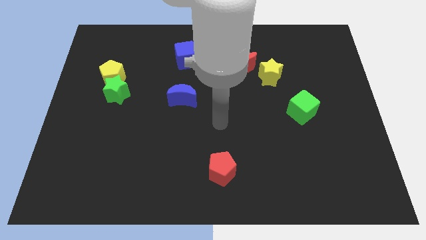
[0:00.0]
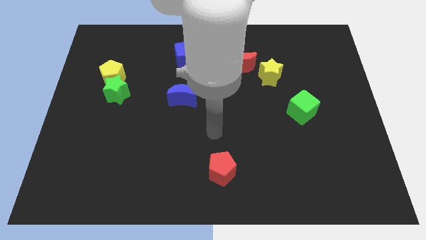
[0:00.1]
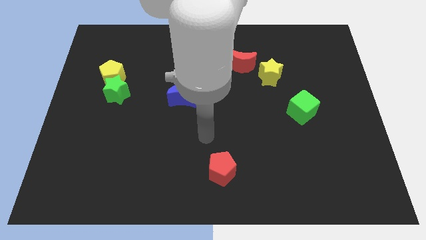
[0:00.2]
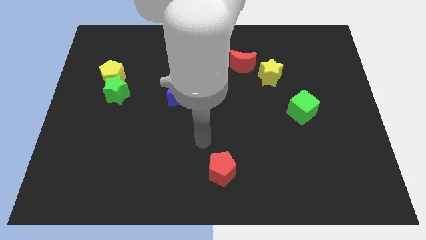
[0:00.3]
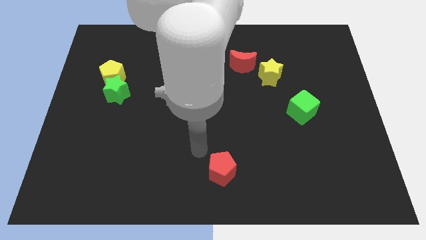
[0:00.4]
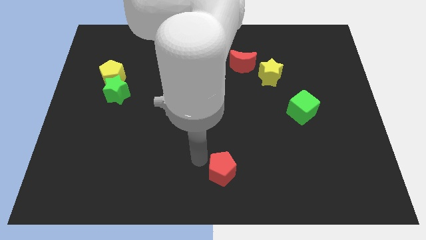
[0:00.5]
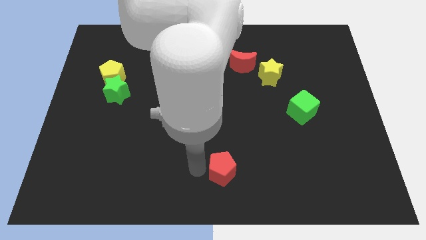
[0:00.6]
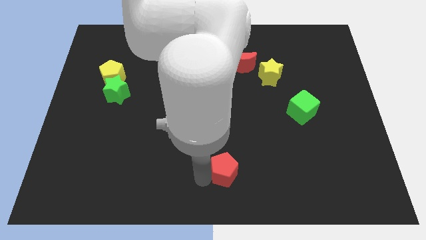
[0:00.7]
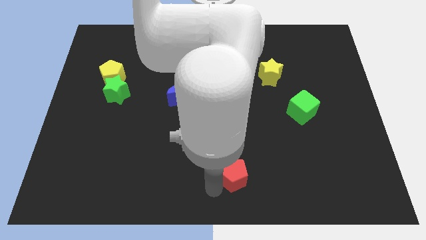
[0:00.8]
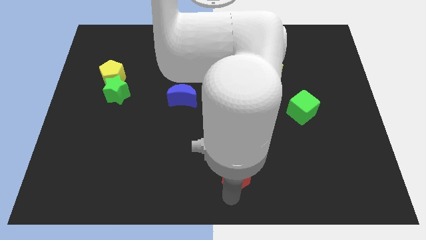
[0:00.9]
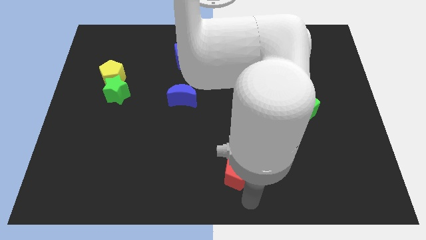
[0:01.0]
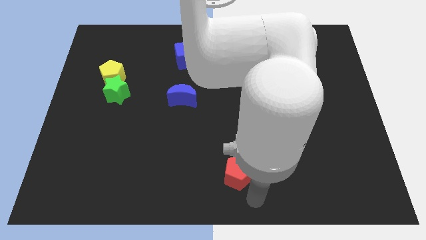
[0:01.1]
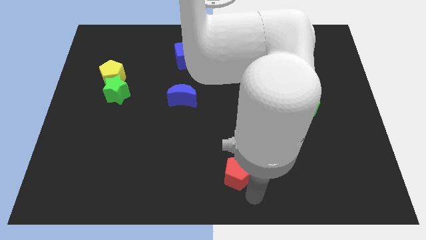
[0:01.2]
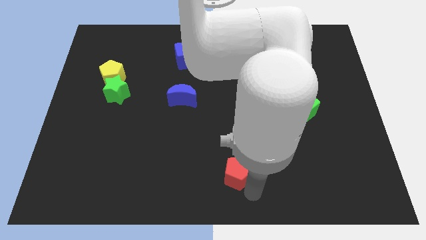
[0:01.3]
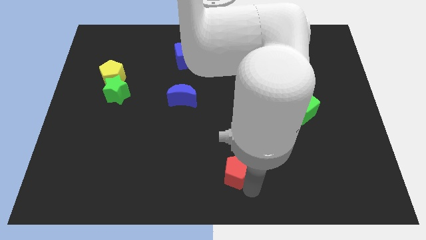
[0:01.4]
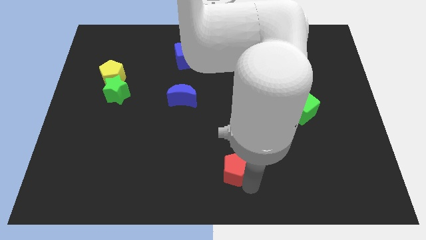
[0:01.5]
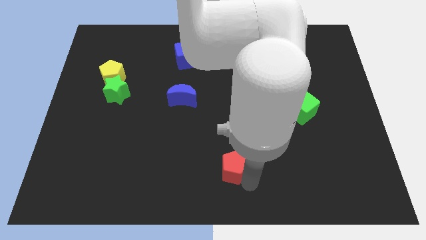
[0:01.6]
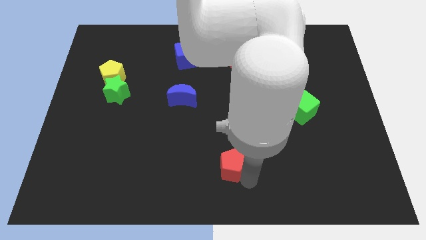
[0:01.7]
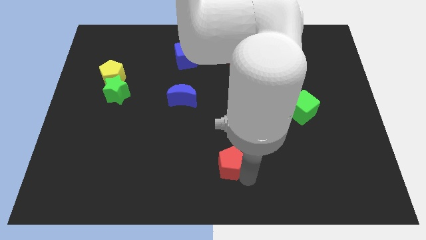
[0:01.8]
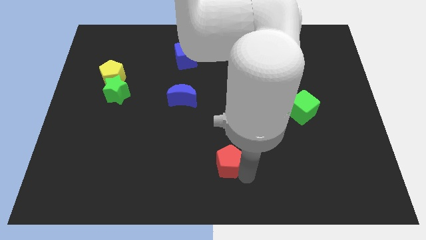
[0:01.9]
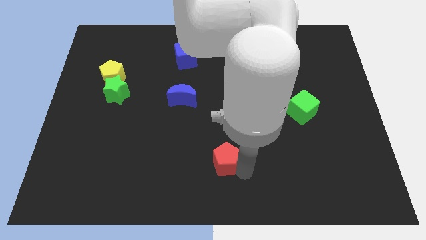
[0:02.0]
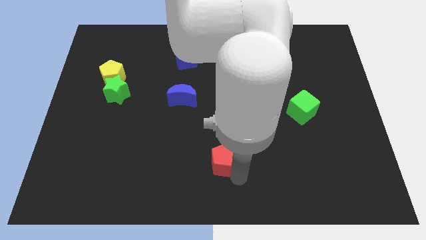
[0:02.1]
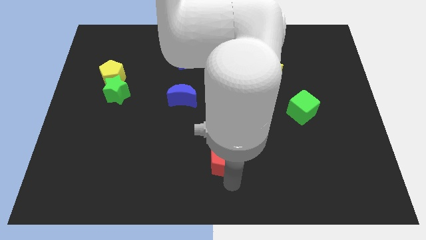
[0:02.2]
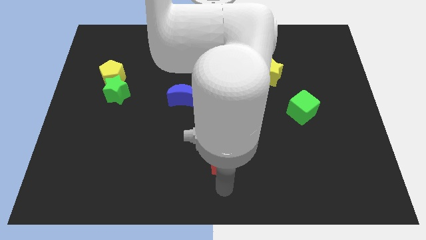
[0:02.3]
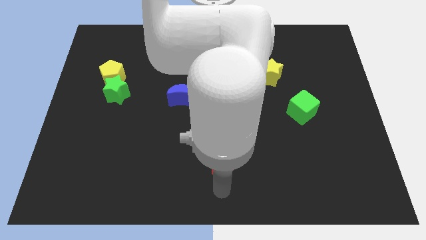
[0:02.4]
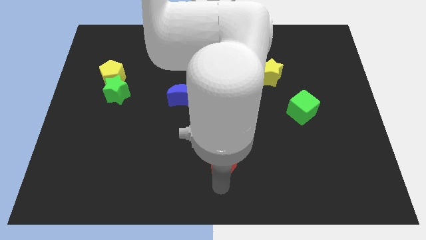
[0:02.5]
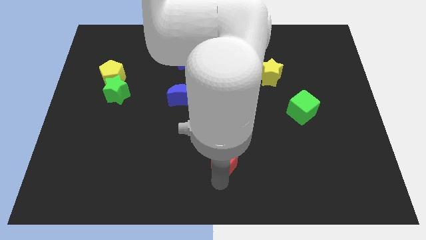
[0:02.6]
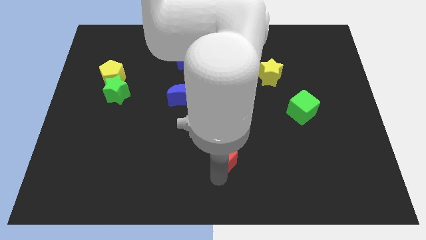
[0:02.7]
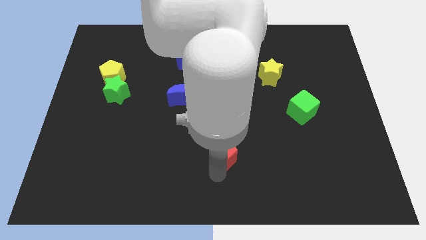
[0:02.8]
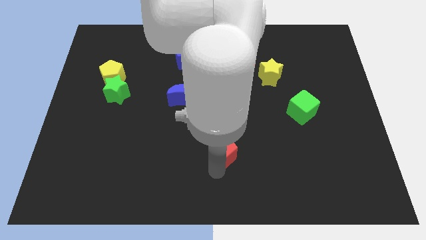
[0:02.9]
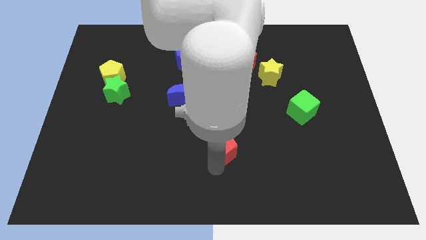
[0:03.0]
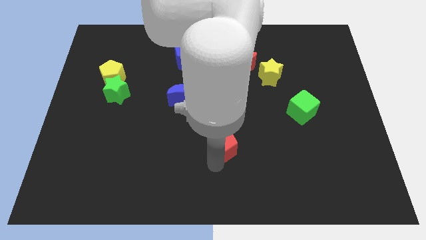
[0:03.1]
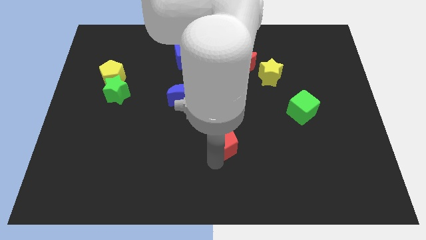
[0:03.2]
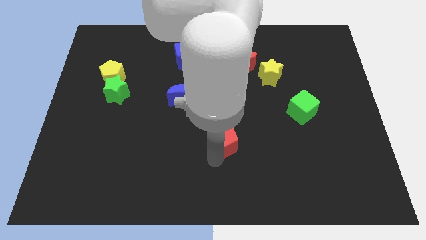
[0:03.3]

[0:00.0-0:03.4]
move the red pentagon upwards a bit

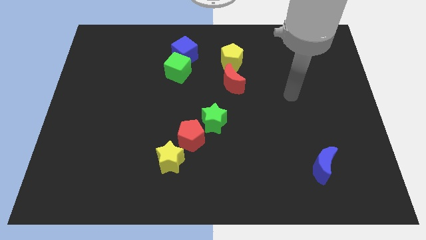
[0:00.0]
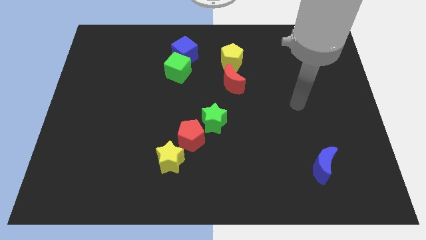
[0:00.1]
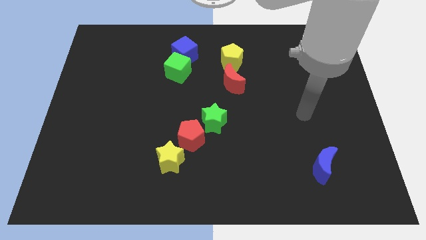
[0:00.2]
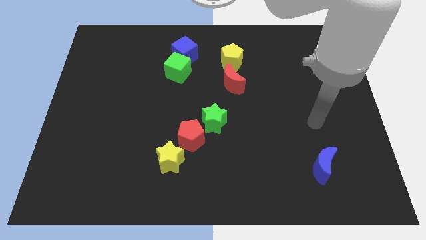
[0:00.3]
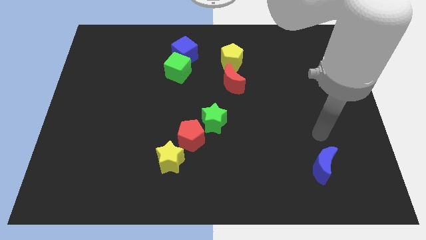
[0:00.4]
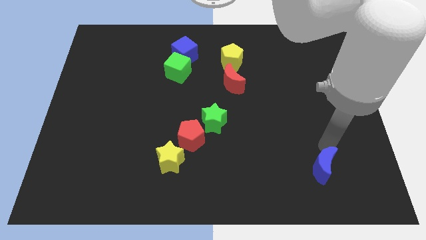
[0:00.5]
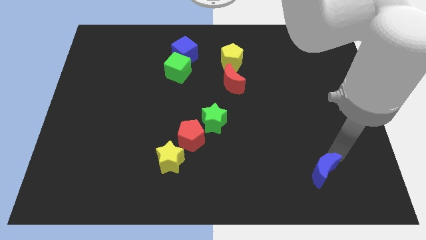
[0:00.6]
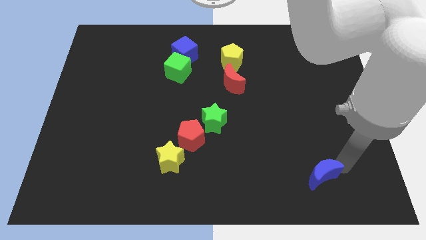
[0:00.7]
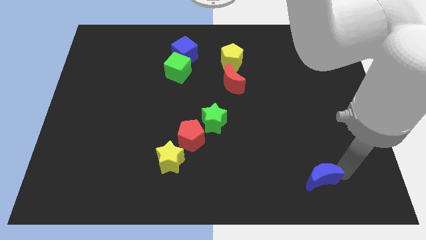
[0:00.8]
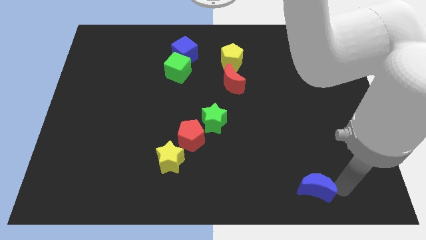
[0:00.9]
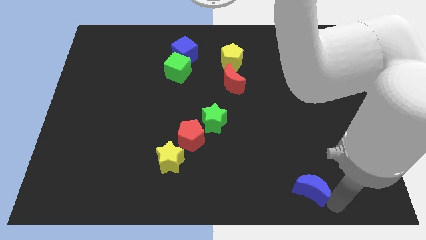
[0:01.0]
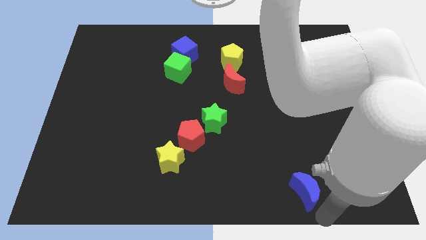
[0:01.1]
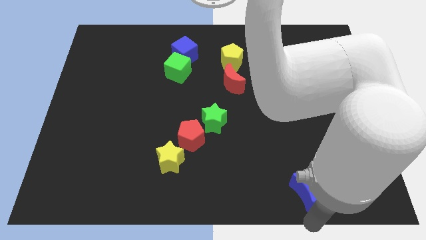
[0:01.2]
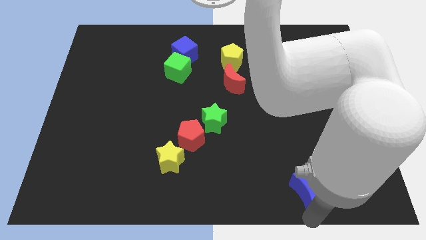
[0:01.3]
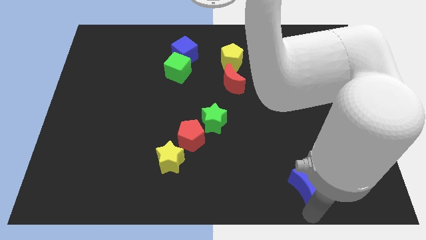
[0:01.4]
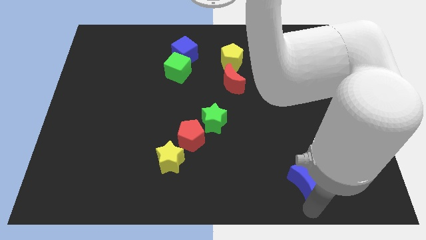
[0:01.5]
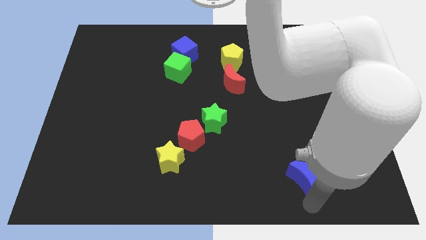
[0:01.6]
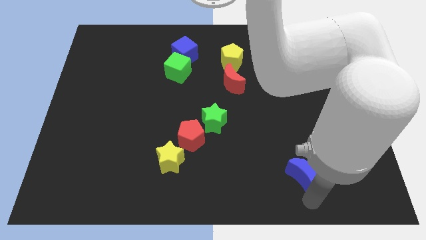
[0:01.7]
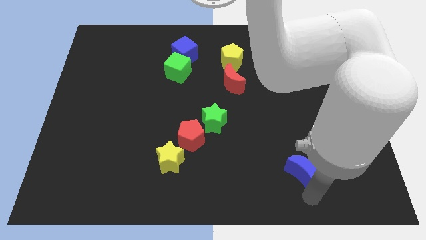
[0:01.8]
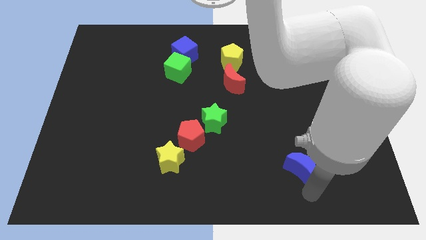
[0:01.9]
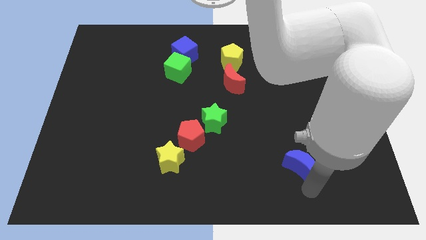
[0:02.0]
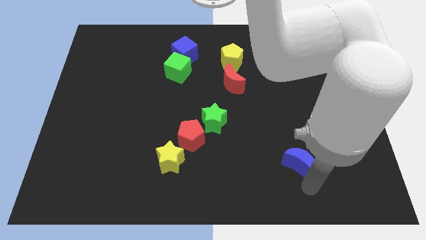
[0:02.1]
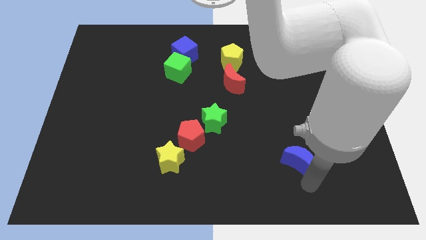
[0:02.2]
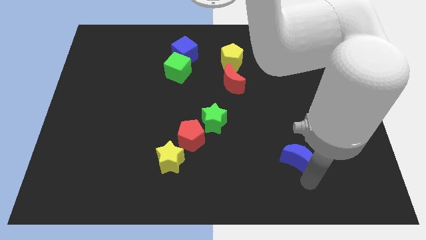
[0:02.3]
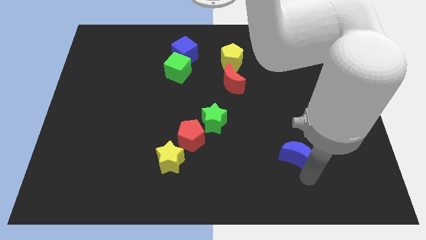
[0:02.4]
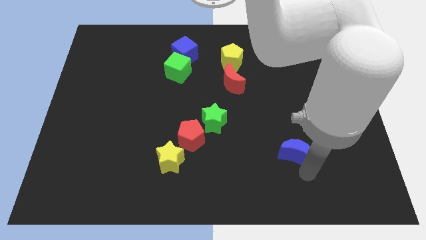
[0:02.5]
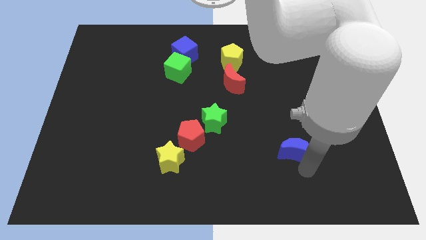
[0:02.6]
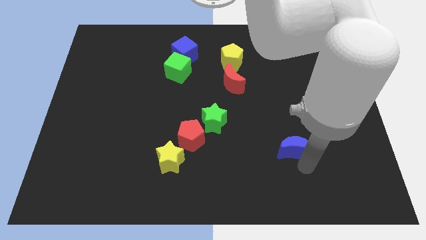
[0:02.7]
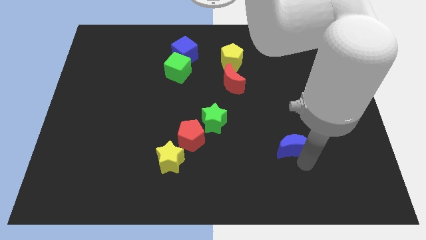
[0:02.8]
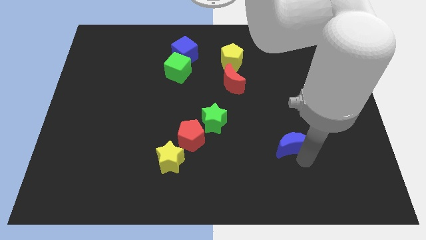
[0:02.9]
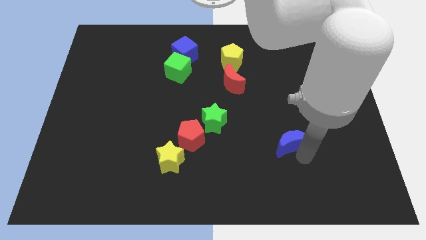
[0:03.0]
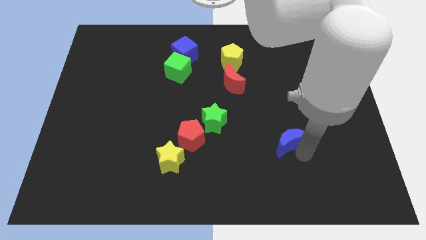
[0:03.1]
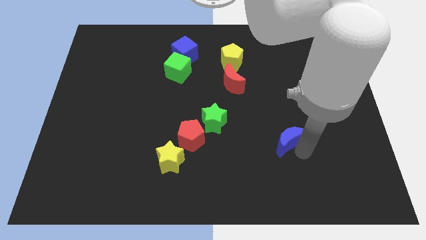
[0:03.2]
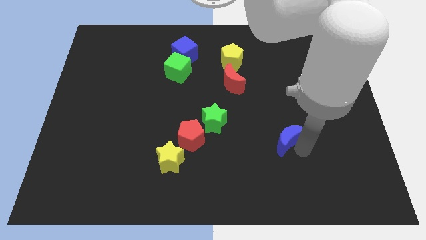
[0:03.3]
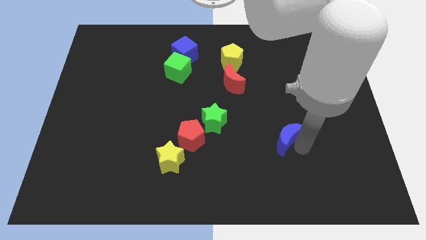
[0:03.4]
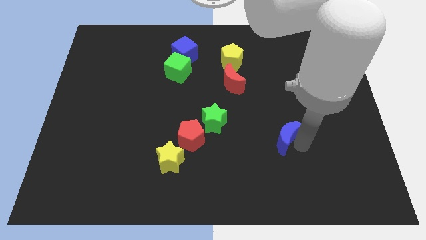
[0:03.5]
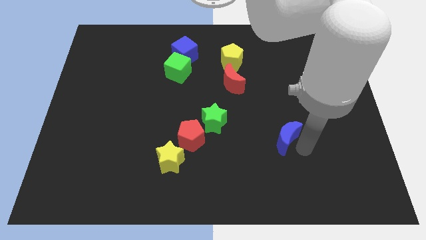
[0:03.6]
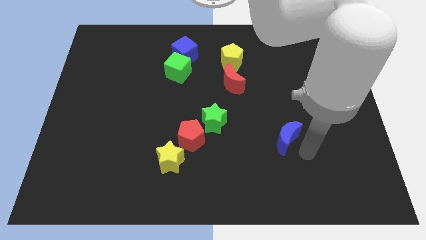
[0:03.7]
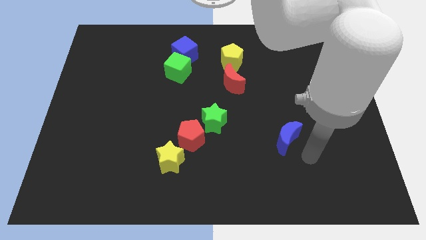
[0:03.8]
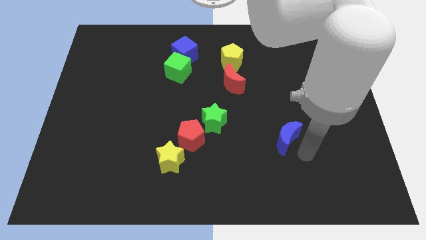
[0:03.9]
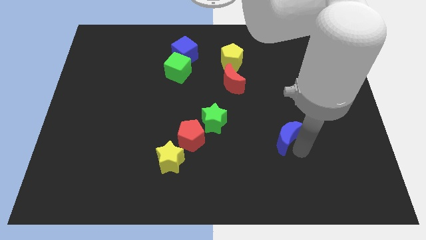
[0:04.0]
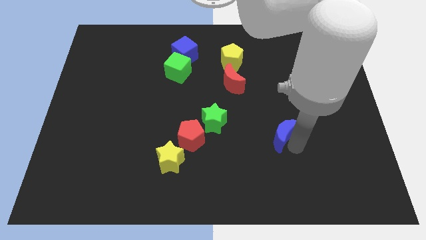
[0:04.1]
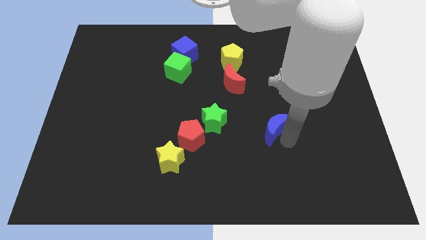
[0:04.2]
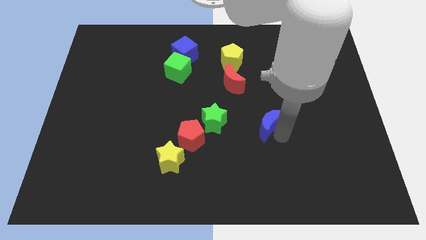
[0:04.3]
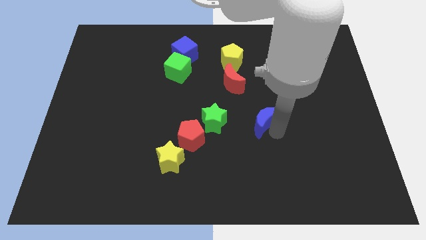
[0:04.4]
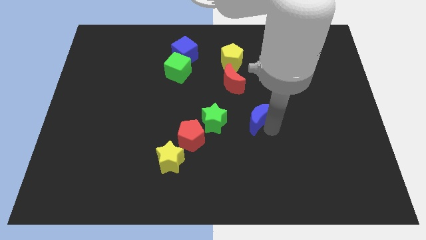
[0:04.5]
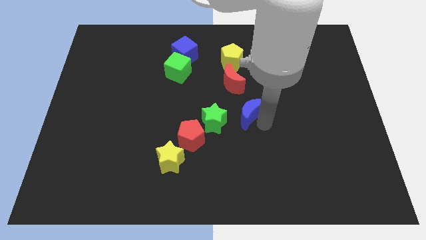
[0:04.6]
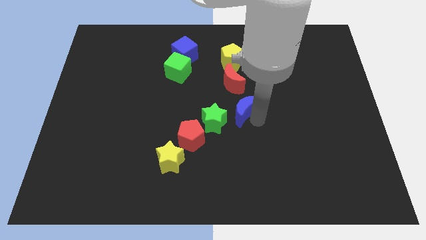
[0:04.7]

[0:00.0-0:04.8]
move the blue moon up and then left

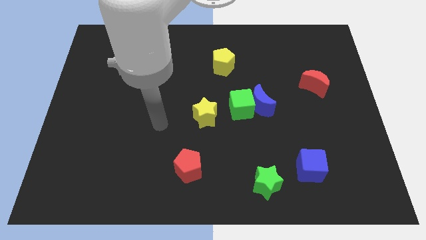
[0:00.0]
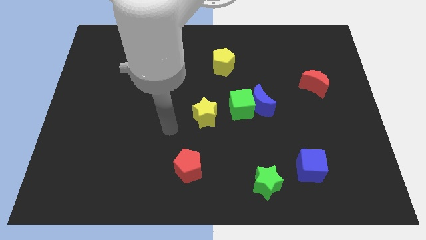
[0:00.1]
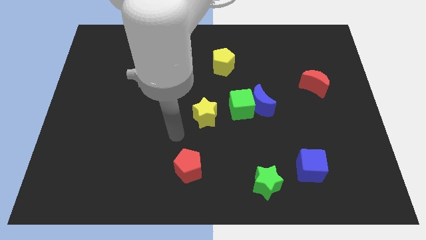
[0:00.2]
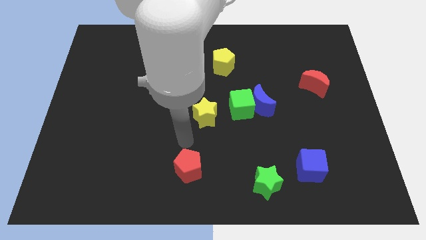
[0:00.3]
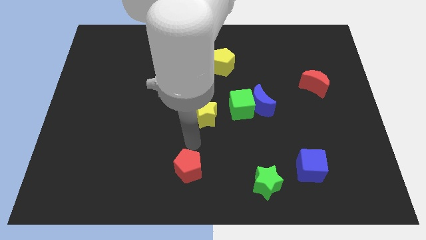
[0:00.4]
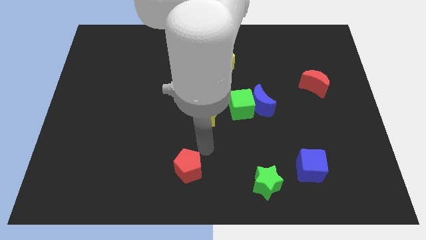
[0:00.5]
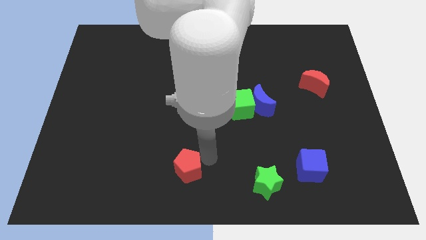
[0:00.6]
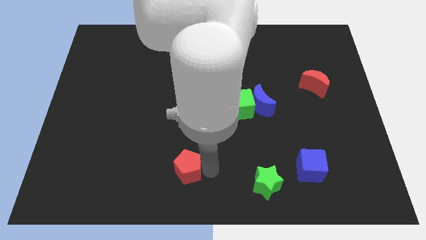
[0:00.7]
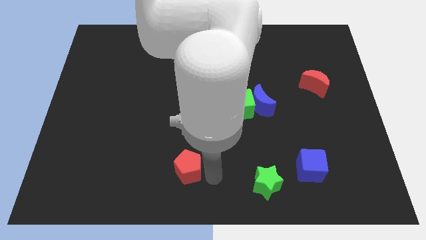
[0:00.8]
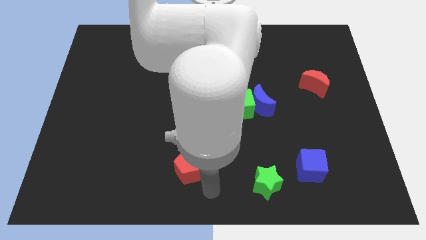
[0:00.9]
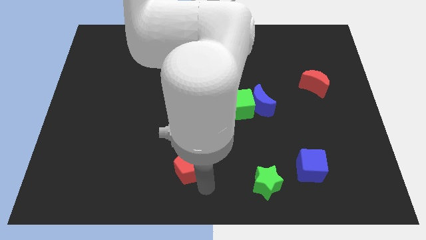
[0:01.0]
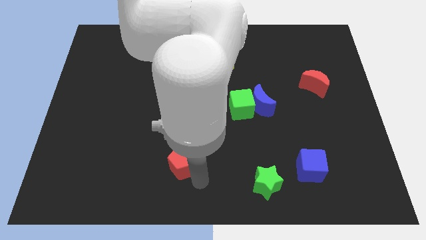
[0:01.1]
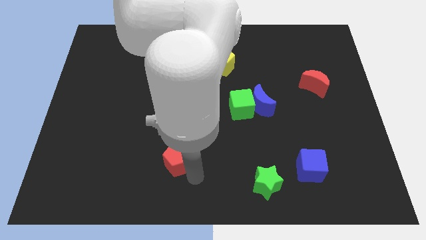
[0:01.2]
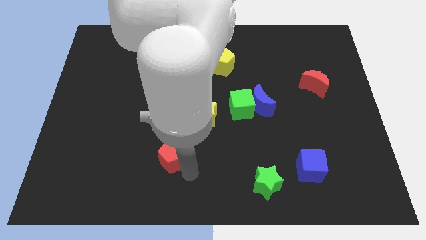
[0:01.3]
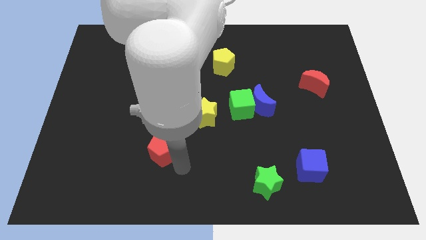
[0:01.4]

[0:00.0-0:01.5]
slightly slide the red pentagon upwards and left
